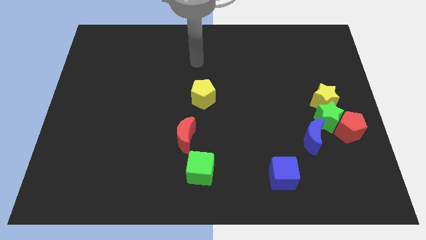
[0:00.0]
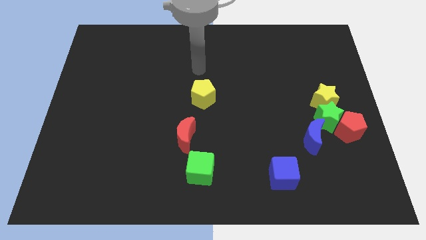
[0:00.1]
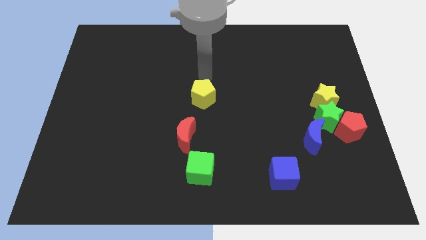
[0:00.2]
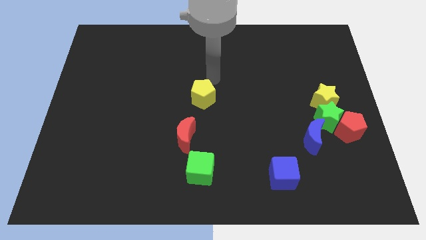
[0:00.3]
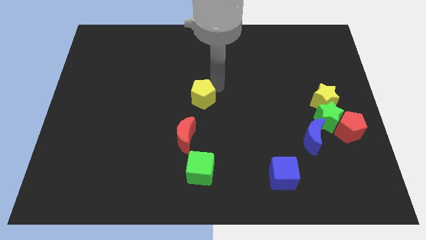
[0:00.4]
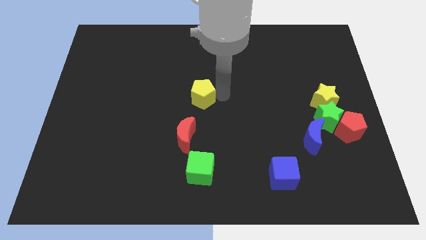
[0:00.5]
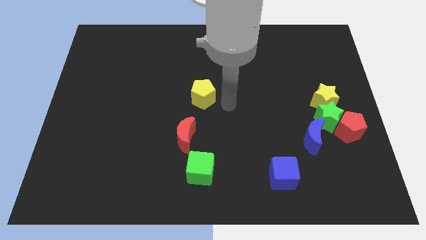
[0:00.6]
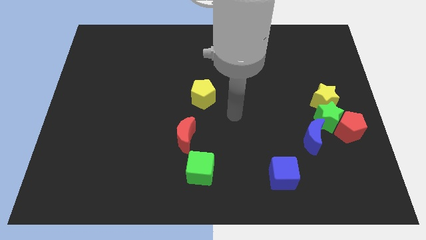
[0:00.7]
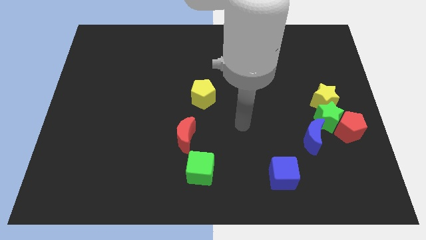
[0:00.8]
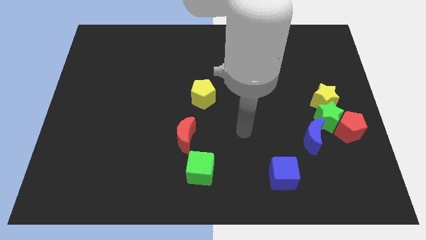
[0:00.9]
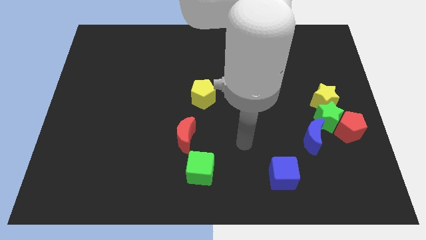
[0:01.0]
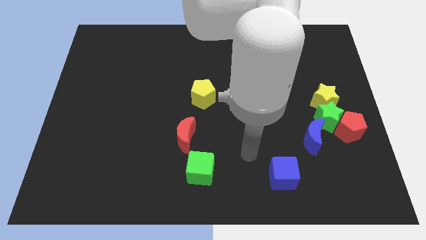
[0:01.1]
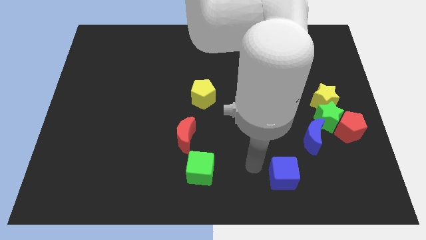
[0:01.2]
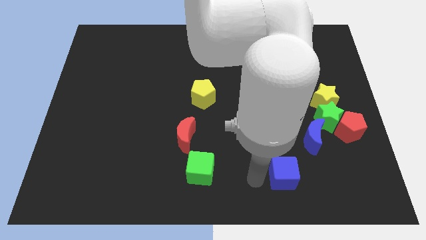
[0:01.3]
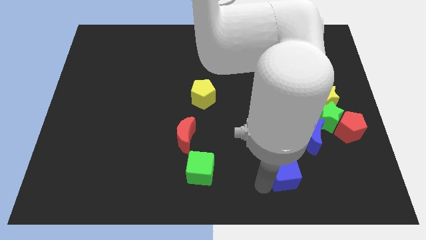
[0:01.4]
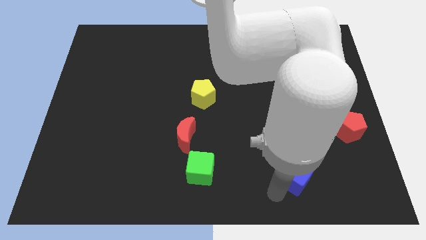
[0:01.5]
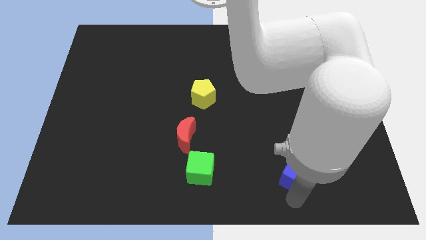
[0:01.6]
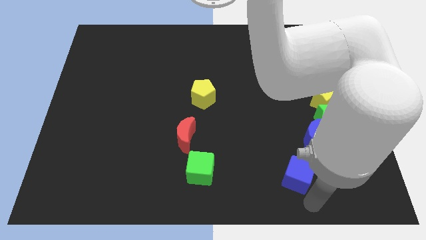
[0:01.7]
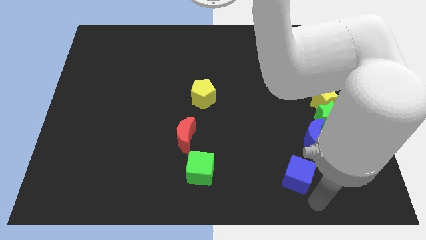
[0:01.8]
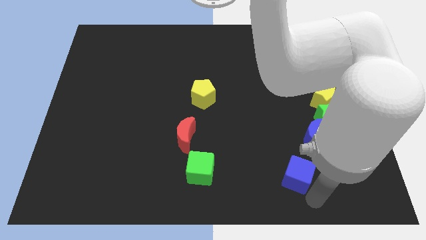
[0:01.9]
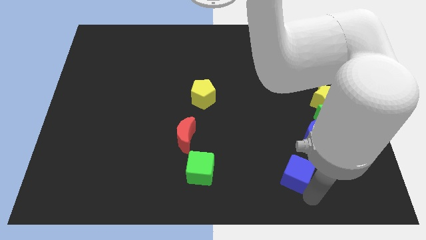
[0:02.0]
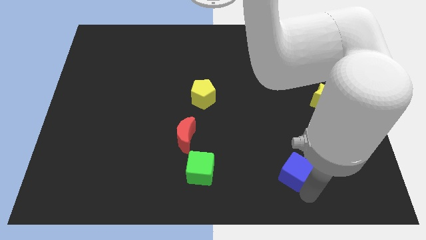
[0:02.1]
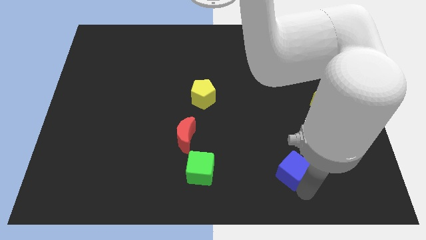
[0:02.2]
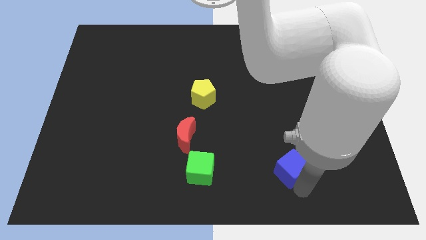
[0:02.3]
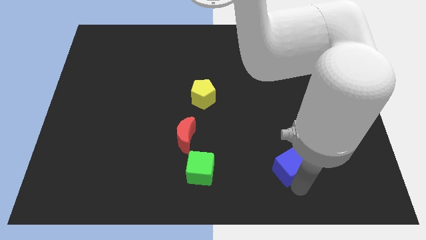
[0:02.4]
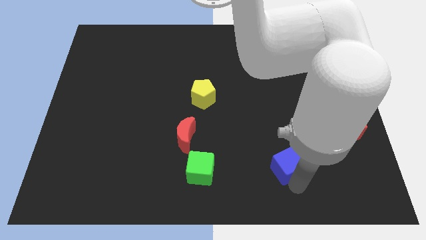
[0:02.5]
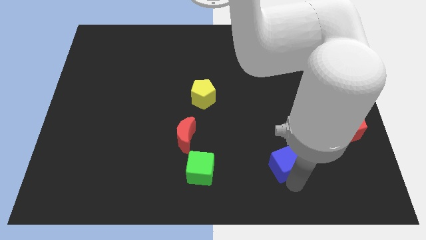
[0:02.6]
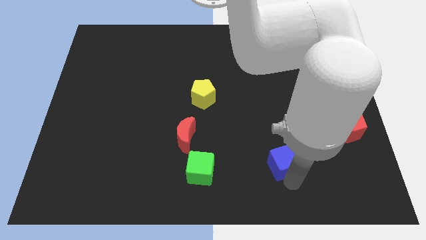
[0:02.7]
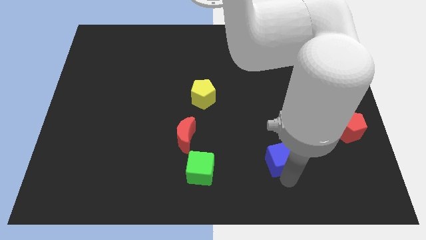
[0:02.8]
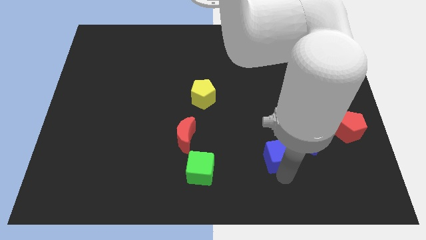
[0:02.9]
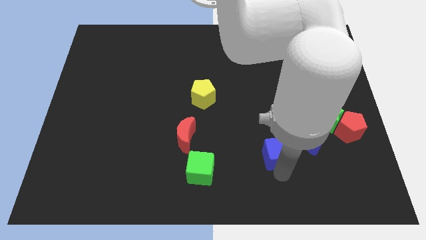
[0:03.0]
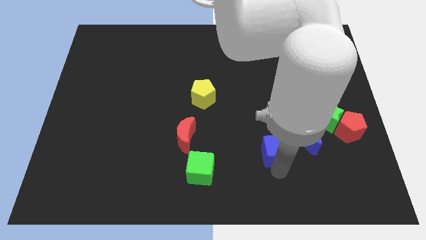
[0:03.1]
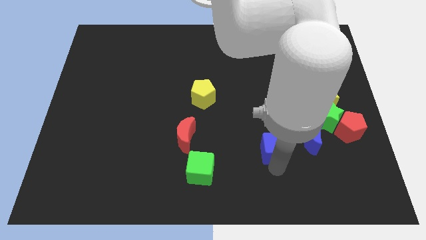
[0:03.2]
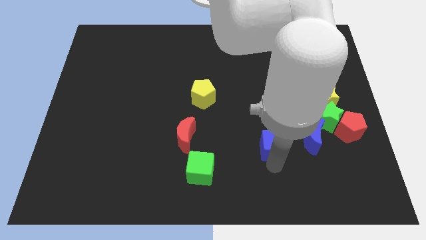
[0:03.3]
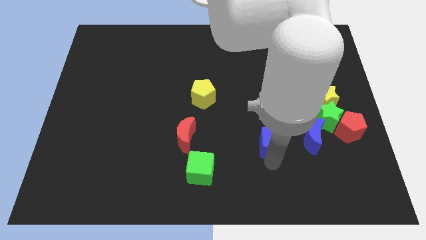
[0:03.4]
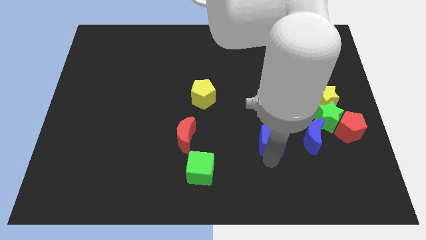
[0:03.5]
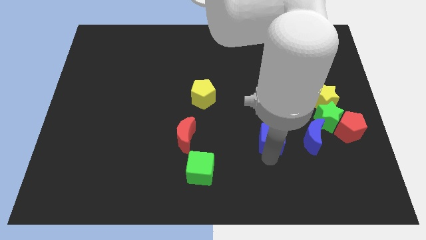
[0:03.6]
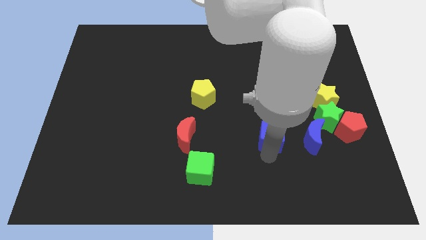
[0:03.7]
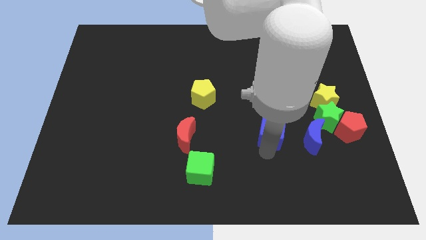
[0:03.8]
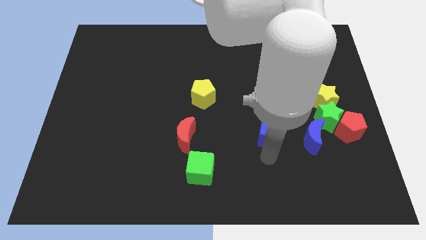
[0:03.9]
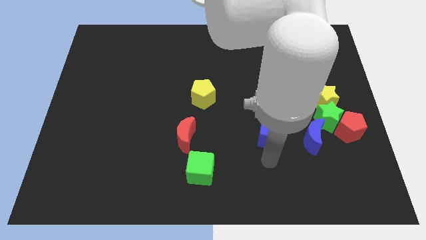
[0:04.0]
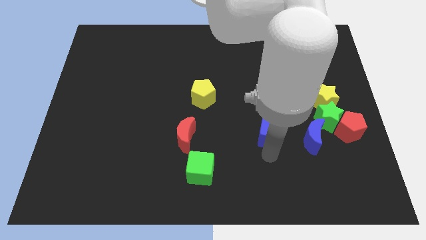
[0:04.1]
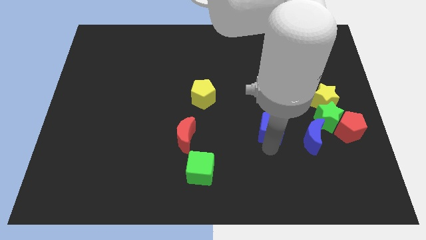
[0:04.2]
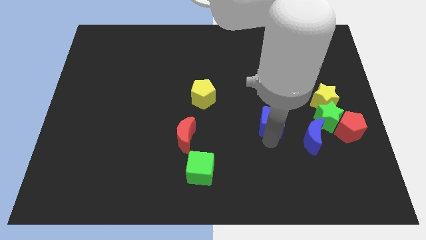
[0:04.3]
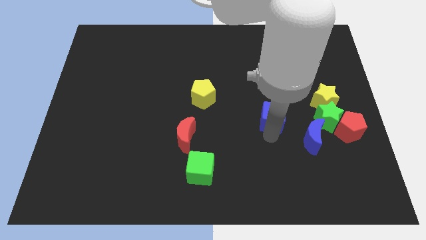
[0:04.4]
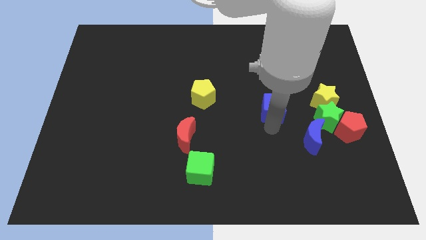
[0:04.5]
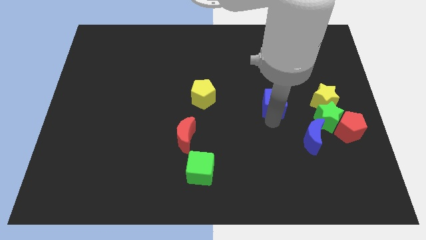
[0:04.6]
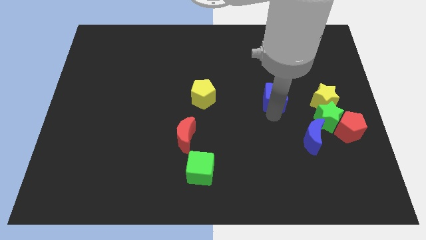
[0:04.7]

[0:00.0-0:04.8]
push the blue cube upwards

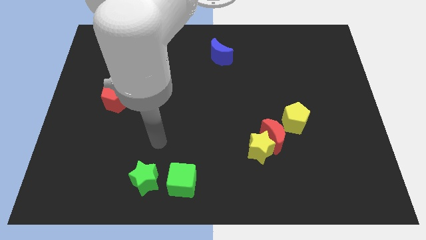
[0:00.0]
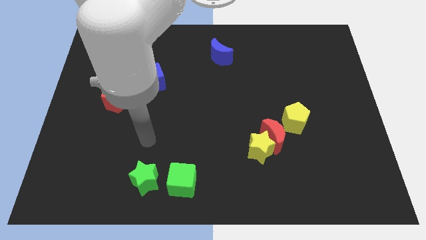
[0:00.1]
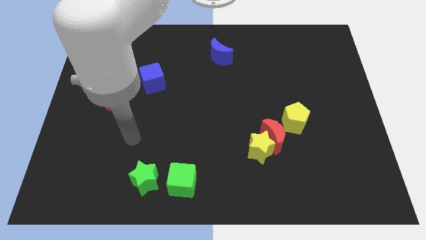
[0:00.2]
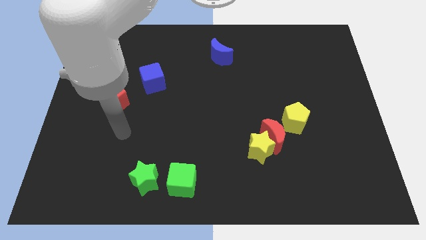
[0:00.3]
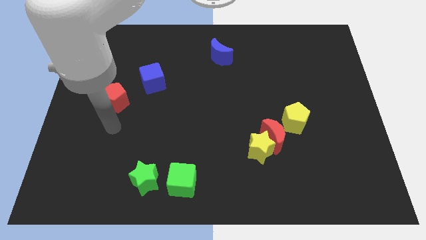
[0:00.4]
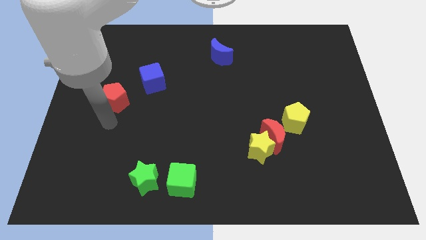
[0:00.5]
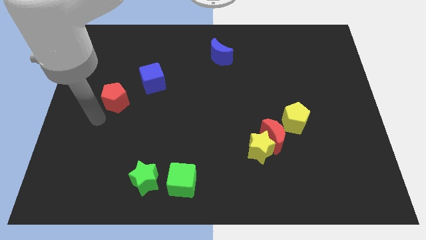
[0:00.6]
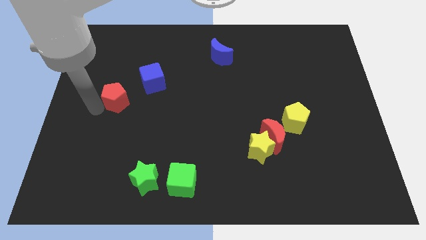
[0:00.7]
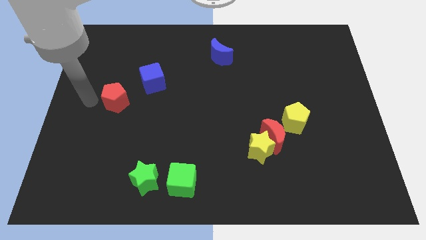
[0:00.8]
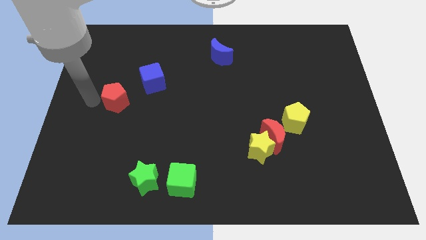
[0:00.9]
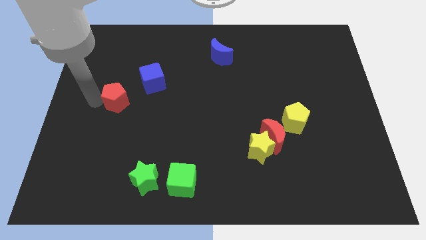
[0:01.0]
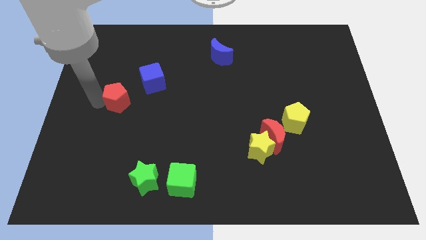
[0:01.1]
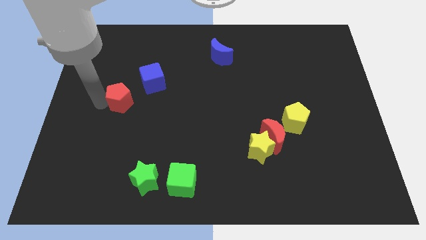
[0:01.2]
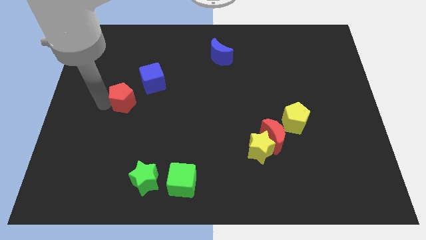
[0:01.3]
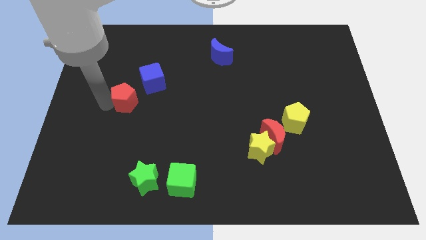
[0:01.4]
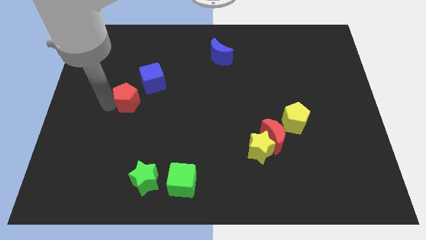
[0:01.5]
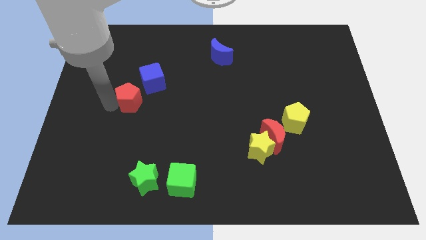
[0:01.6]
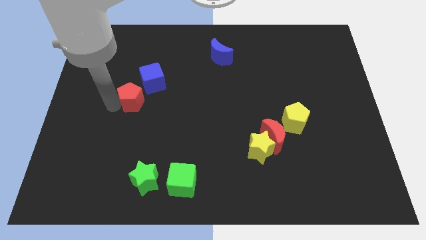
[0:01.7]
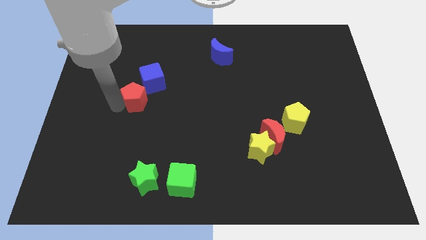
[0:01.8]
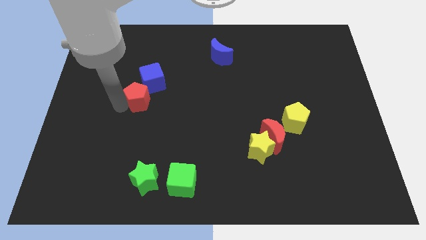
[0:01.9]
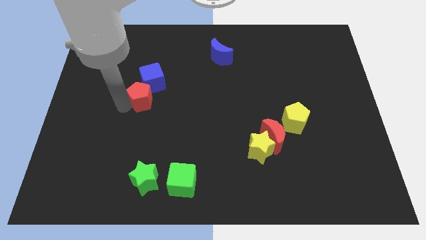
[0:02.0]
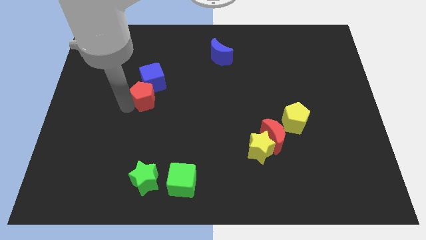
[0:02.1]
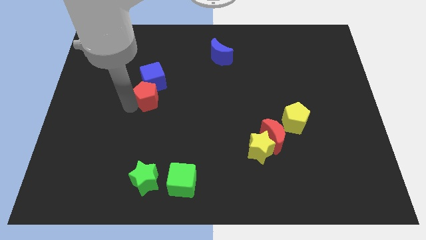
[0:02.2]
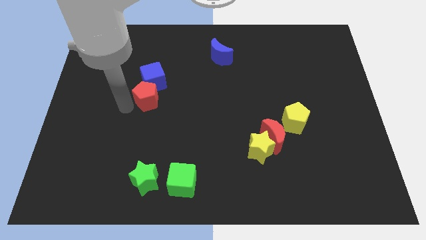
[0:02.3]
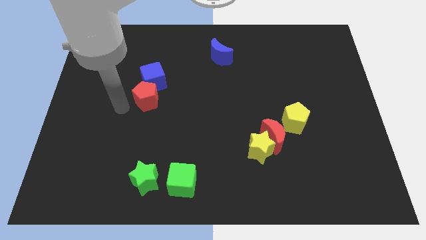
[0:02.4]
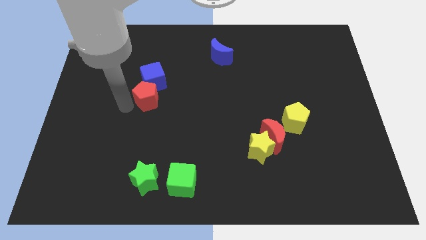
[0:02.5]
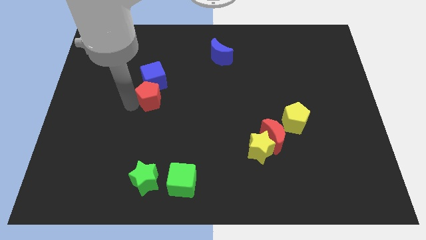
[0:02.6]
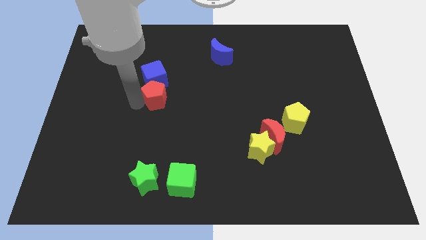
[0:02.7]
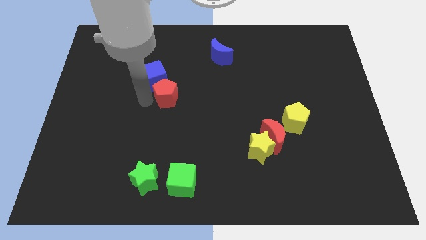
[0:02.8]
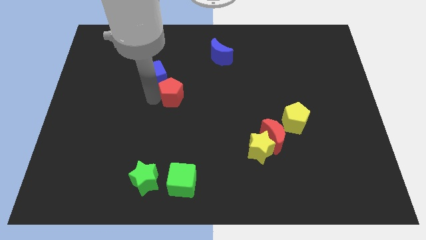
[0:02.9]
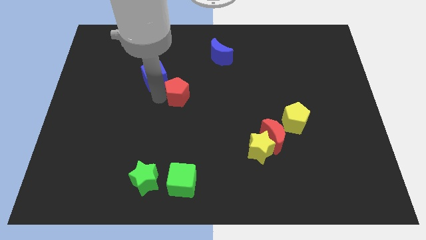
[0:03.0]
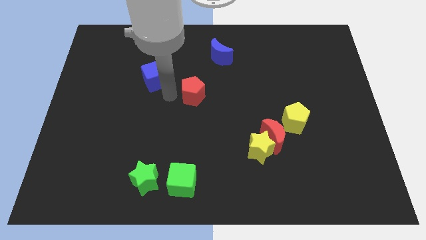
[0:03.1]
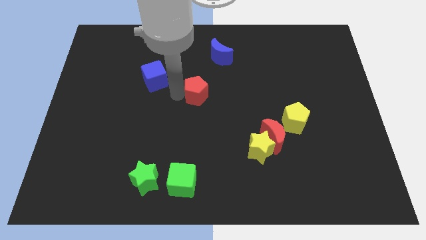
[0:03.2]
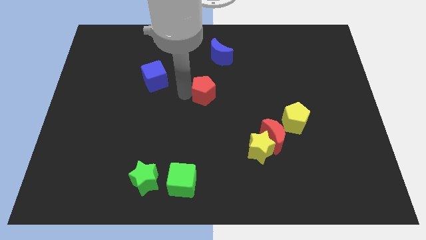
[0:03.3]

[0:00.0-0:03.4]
move the red pentagon to the right

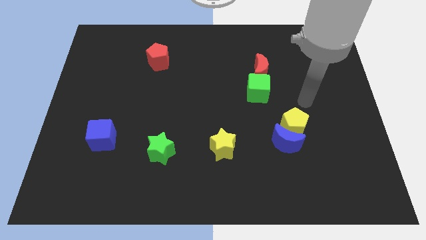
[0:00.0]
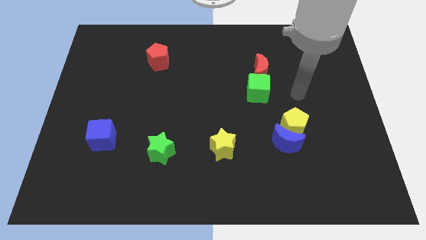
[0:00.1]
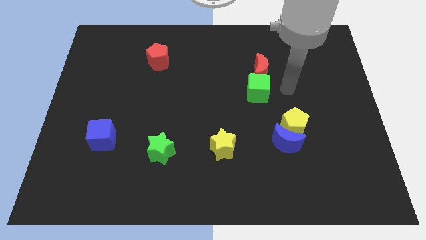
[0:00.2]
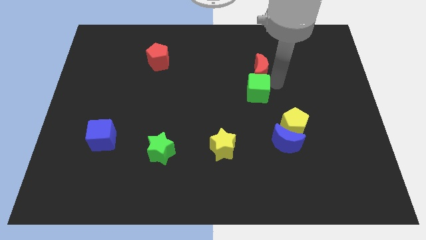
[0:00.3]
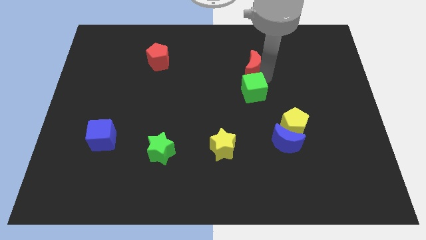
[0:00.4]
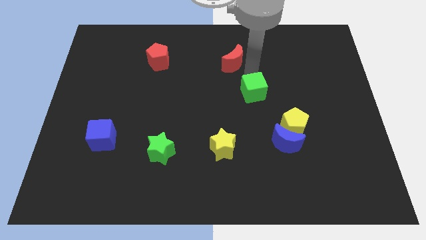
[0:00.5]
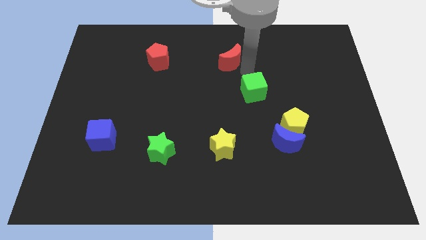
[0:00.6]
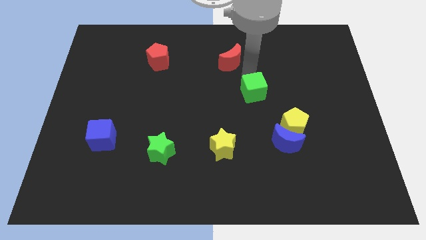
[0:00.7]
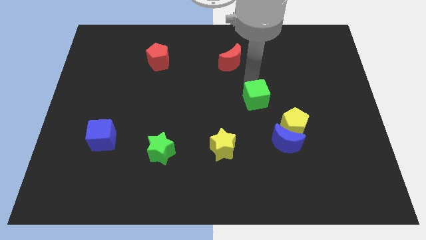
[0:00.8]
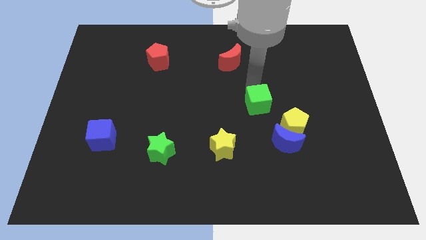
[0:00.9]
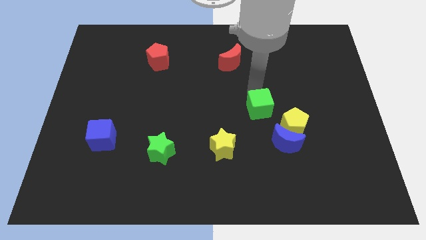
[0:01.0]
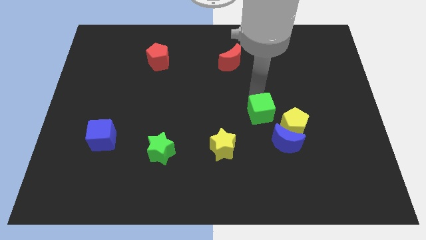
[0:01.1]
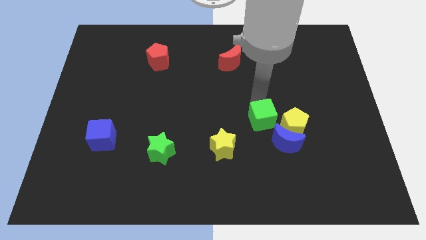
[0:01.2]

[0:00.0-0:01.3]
push the green cube downwards a little bit
